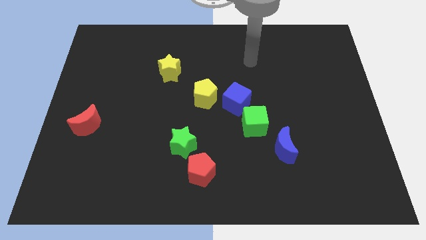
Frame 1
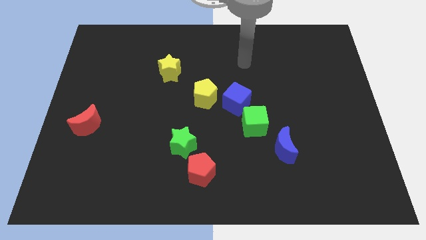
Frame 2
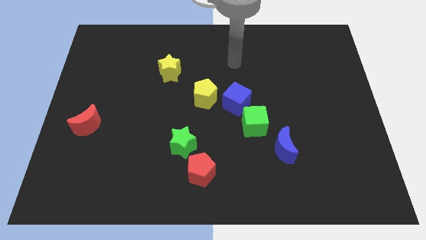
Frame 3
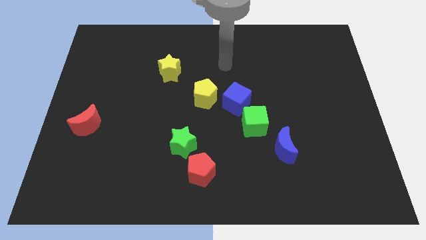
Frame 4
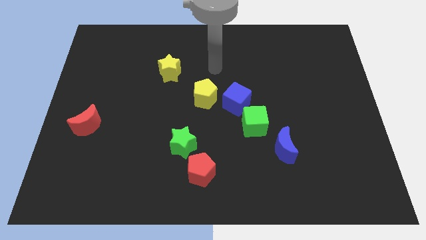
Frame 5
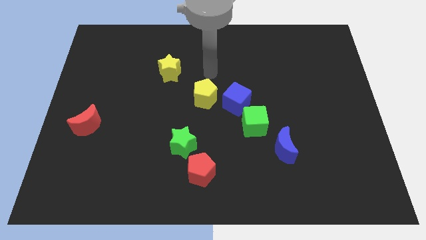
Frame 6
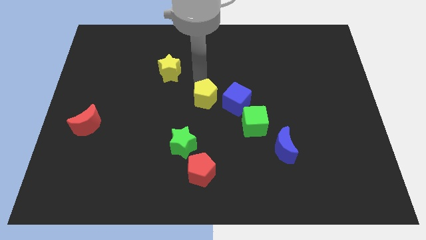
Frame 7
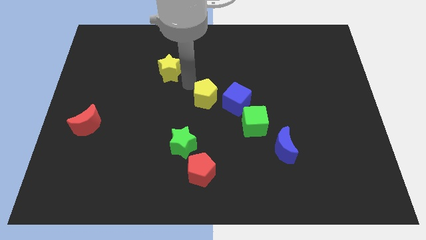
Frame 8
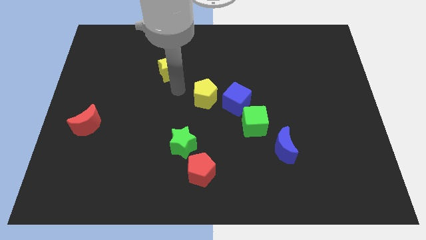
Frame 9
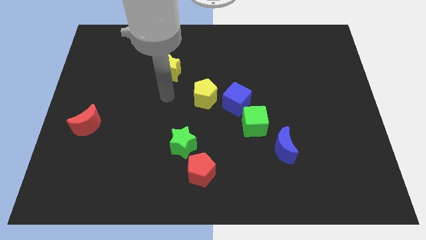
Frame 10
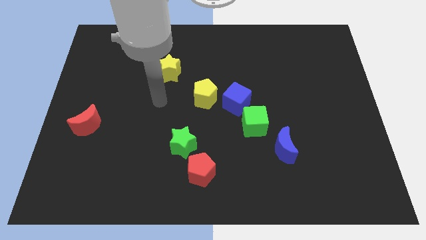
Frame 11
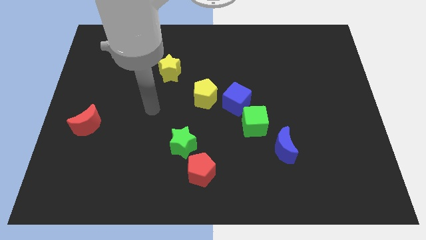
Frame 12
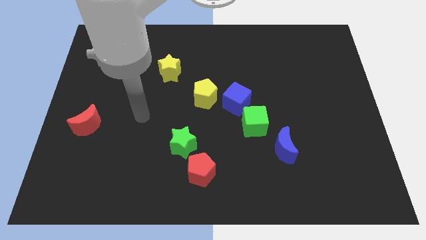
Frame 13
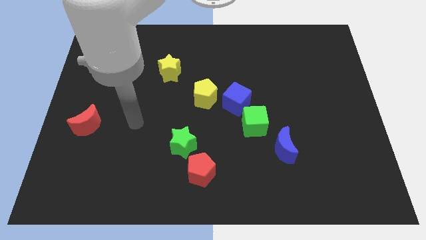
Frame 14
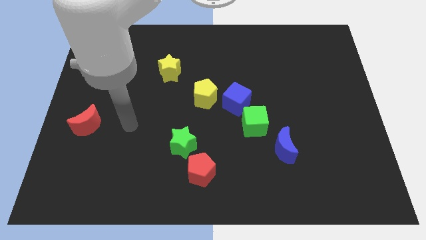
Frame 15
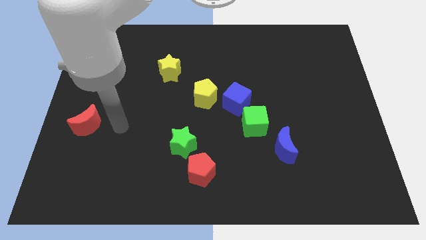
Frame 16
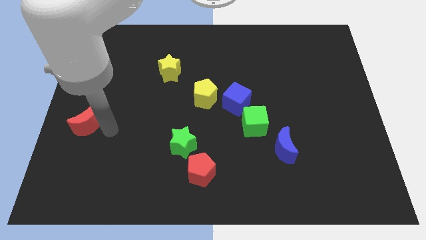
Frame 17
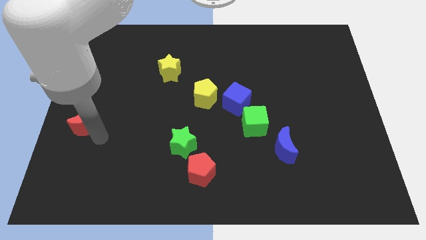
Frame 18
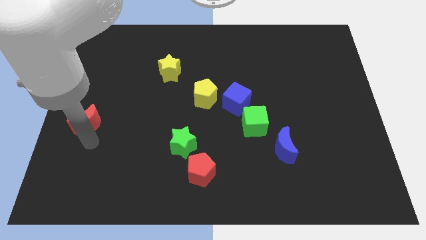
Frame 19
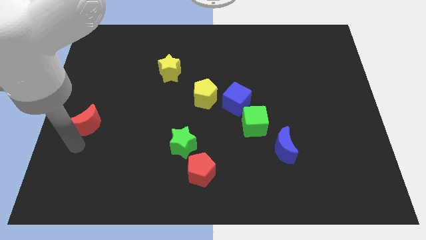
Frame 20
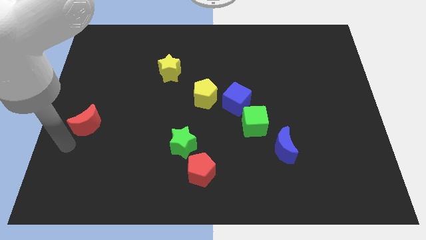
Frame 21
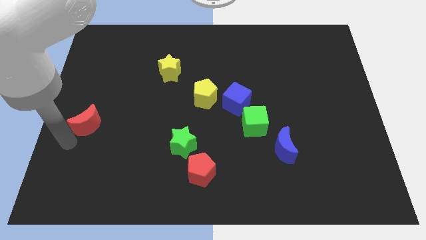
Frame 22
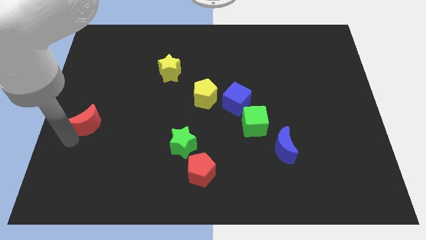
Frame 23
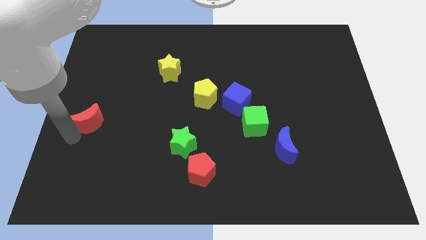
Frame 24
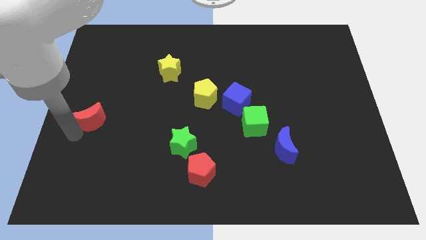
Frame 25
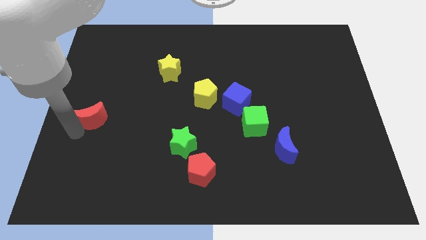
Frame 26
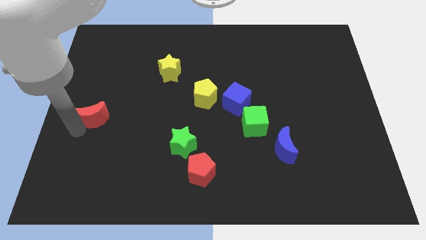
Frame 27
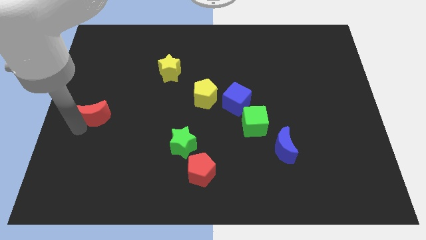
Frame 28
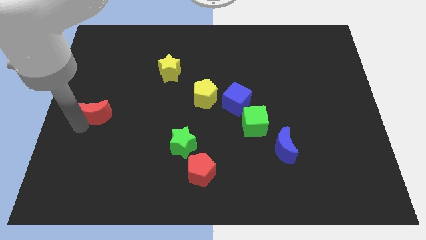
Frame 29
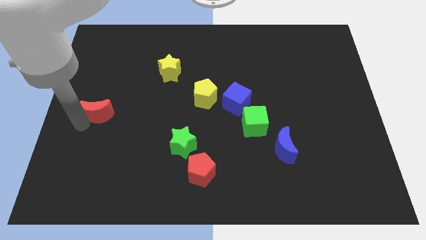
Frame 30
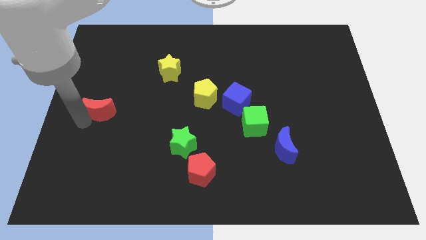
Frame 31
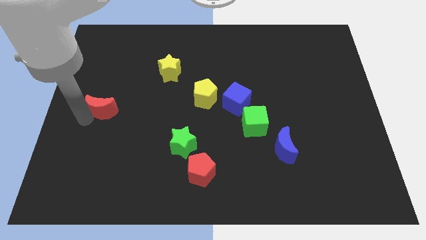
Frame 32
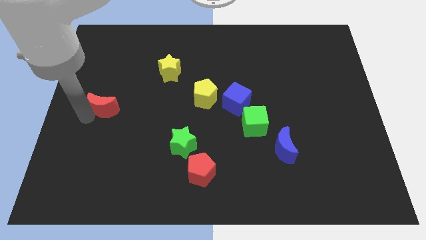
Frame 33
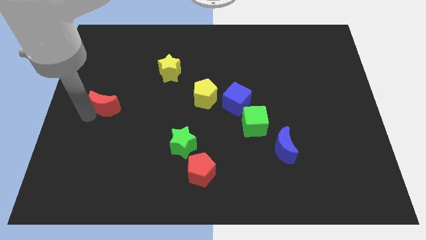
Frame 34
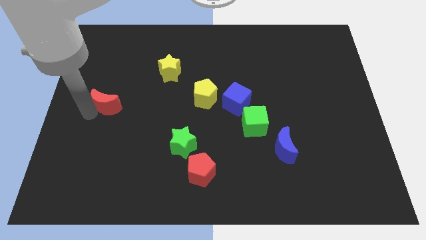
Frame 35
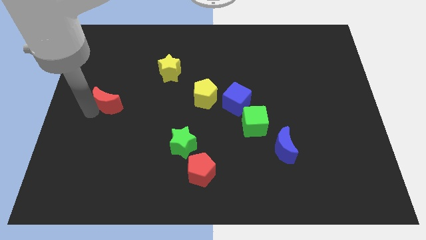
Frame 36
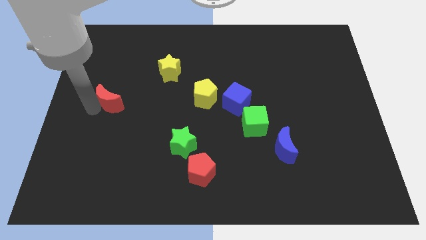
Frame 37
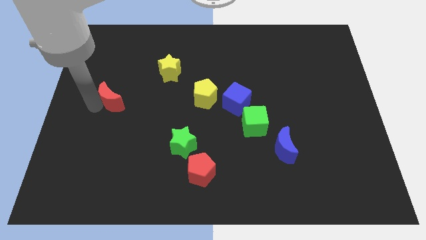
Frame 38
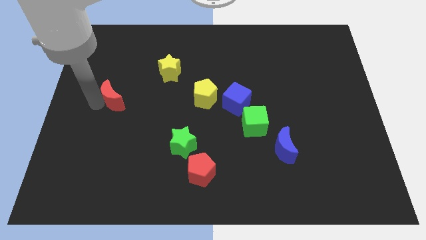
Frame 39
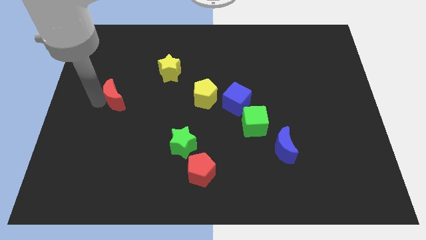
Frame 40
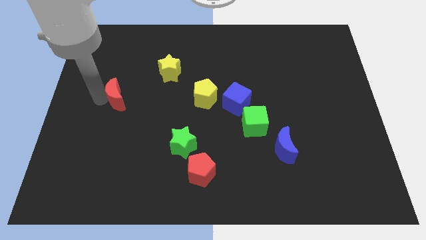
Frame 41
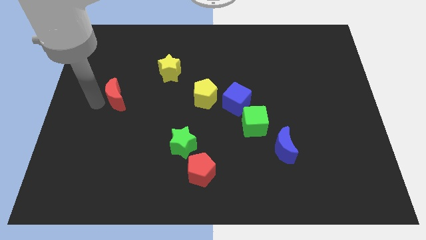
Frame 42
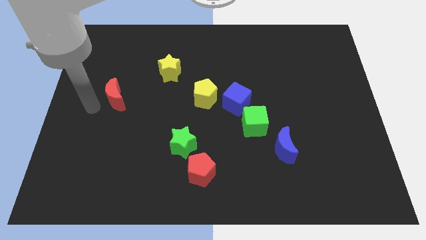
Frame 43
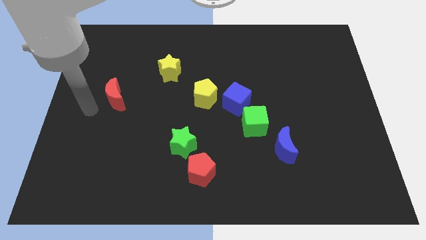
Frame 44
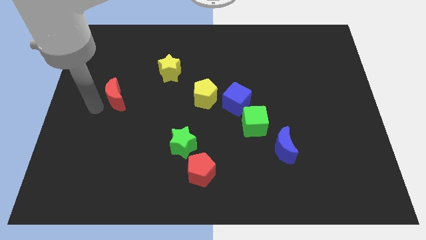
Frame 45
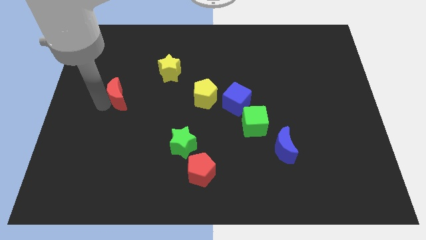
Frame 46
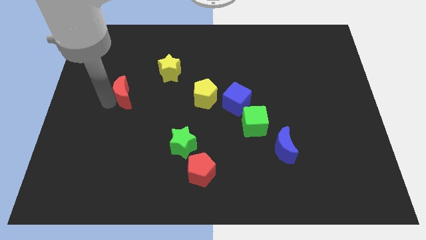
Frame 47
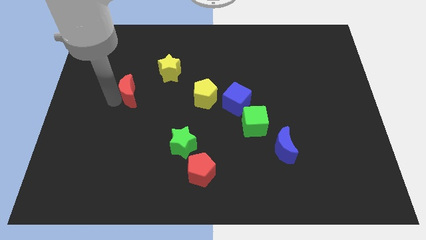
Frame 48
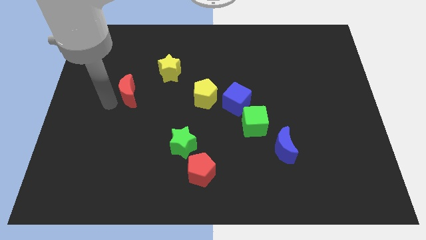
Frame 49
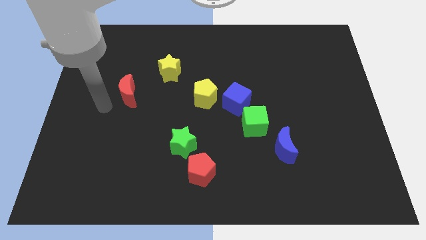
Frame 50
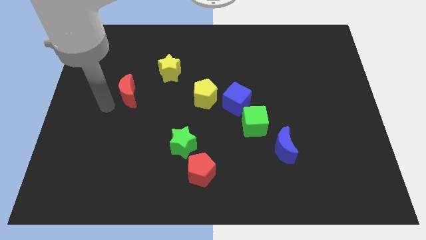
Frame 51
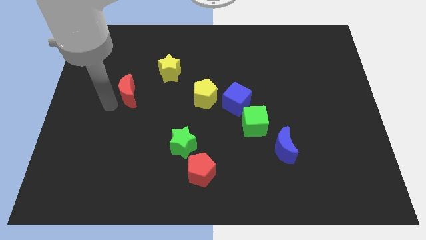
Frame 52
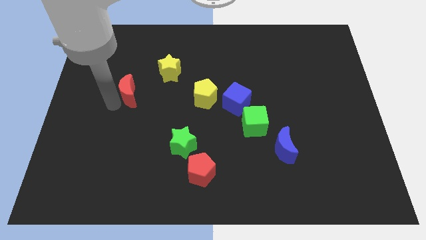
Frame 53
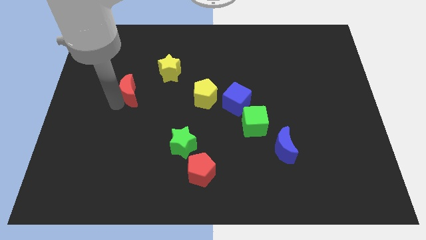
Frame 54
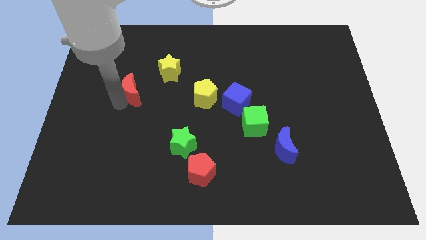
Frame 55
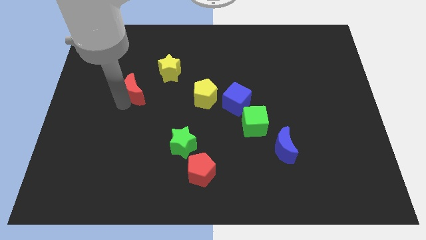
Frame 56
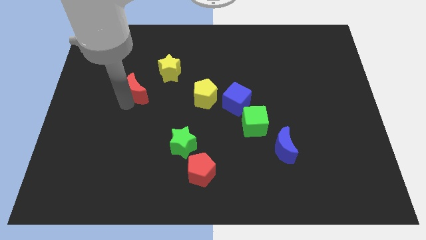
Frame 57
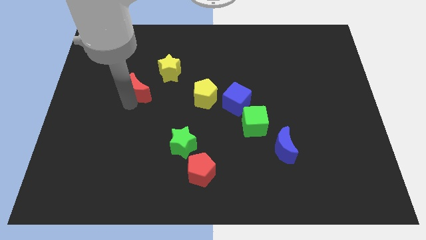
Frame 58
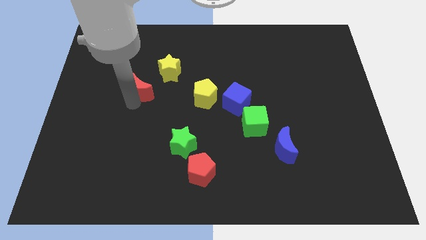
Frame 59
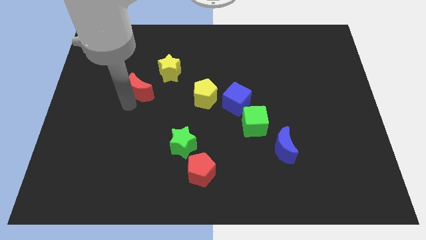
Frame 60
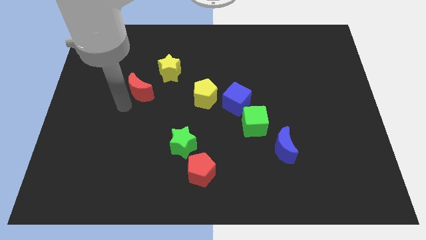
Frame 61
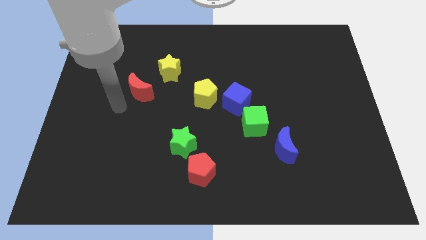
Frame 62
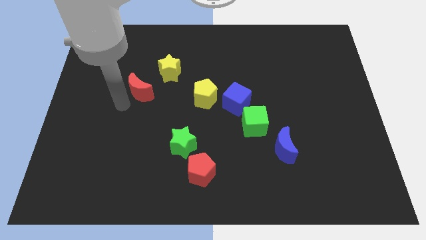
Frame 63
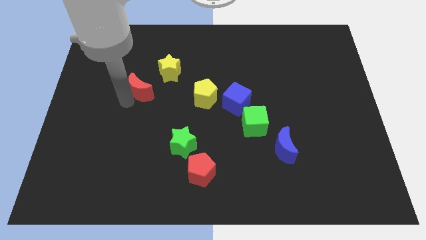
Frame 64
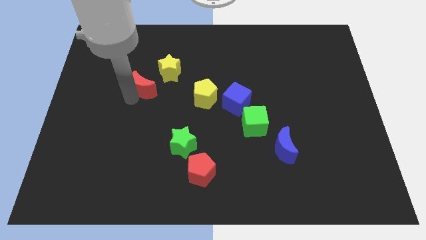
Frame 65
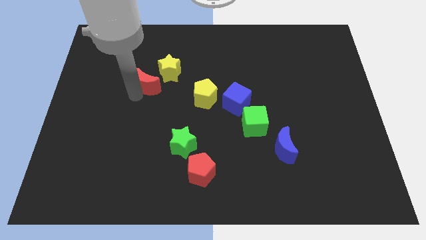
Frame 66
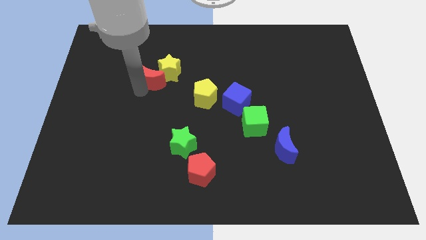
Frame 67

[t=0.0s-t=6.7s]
move the red moon towards the yellow star

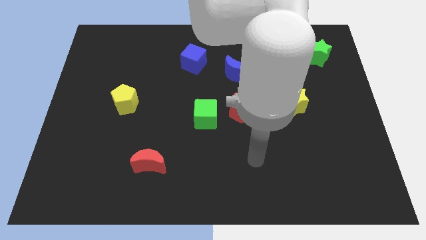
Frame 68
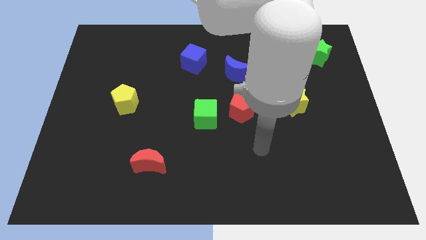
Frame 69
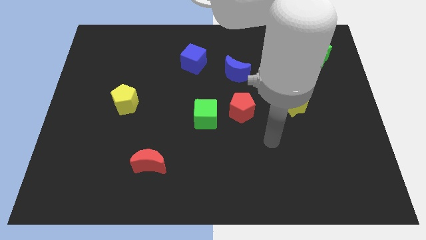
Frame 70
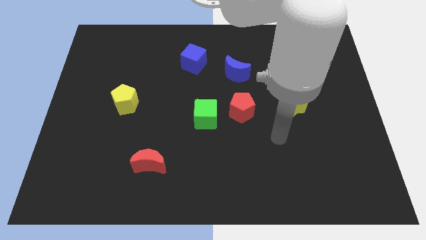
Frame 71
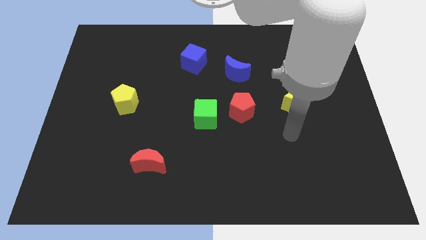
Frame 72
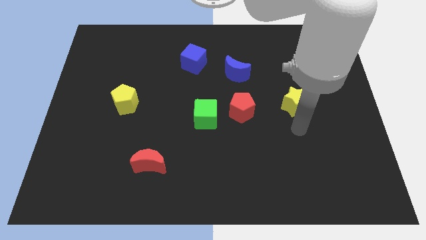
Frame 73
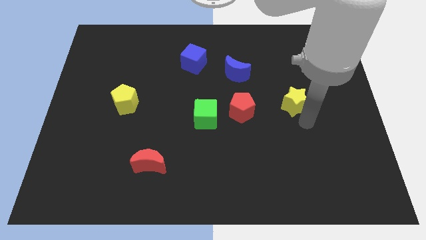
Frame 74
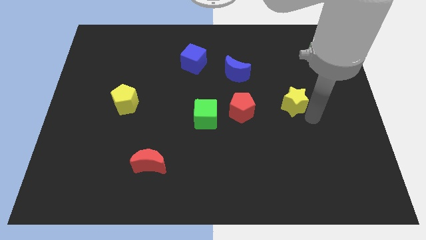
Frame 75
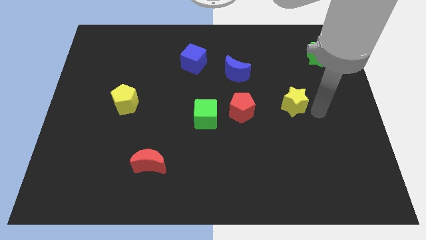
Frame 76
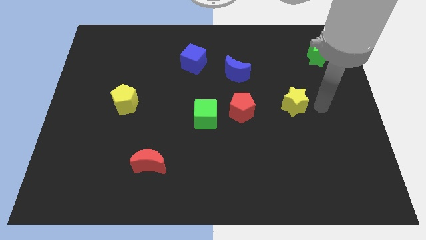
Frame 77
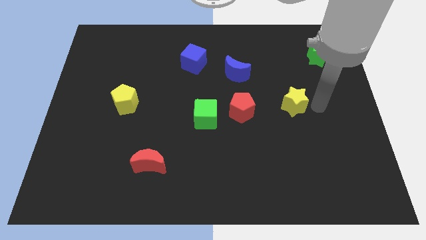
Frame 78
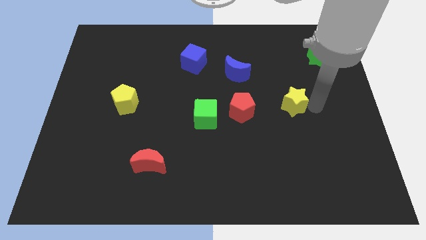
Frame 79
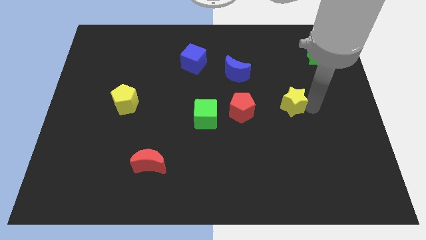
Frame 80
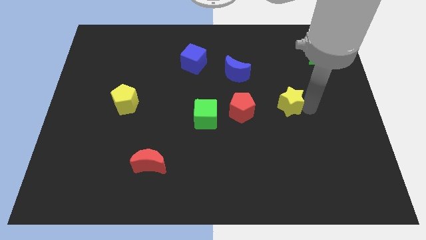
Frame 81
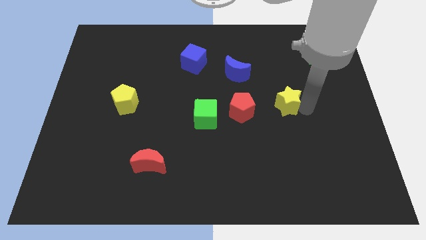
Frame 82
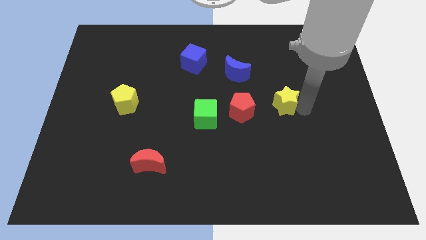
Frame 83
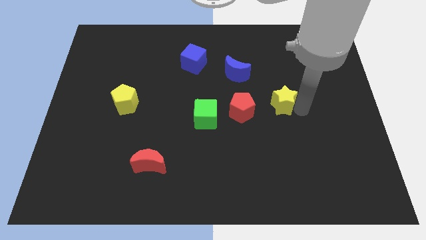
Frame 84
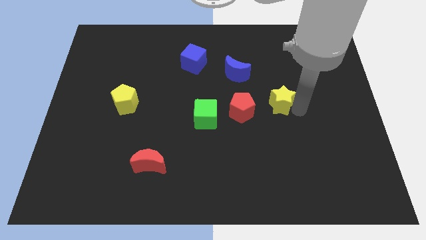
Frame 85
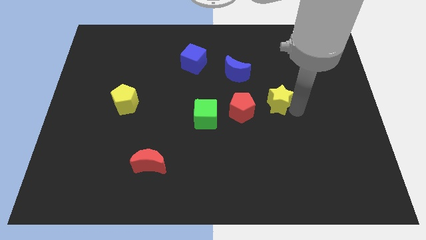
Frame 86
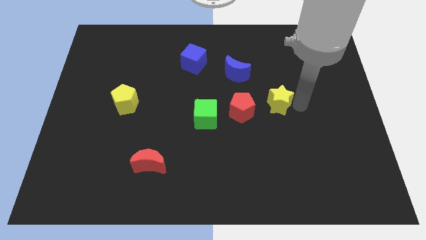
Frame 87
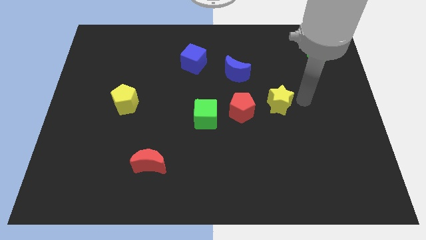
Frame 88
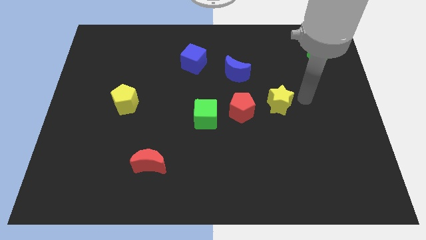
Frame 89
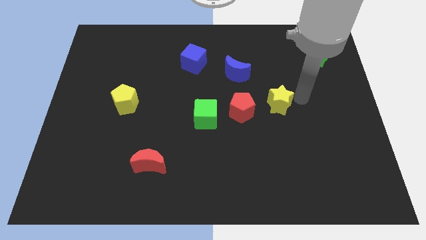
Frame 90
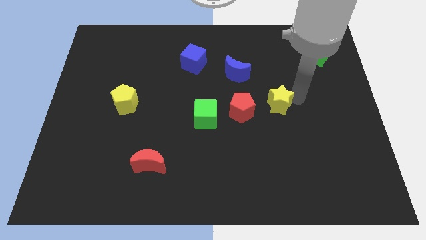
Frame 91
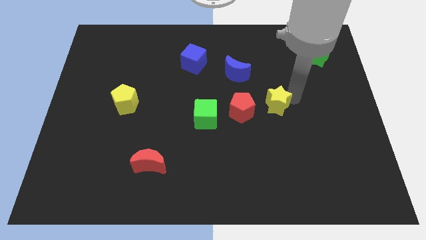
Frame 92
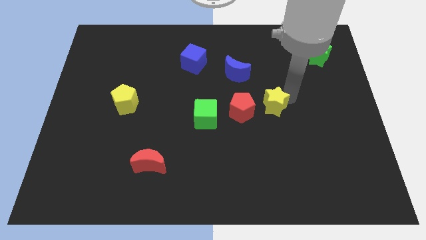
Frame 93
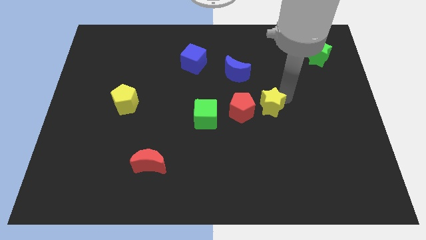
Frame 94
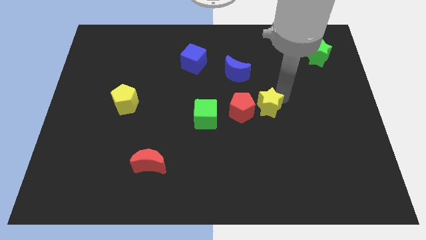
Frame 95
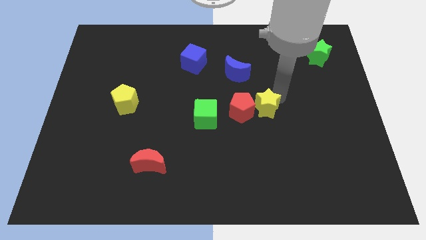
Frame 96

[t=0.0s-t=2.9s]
slide the yellow star to the red pentagon
